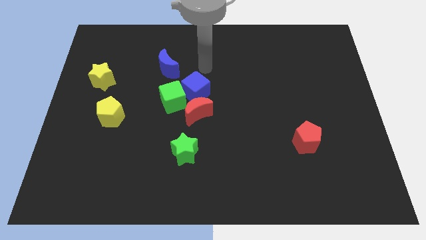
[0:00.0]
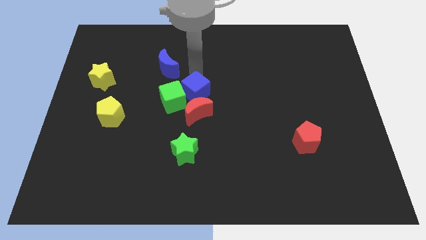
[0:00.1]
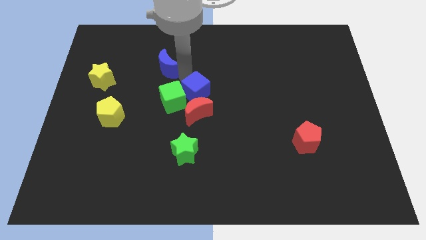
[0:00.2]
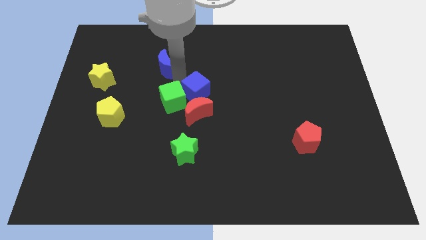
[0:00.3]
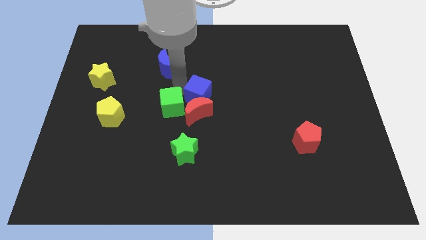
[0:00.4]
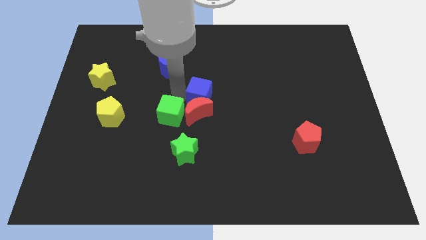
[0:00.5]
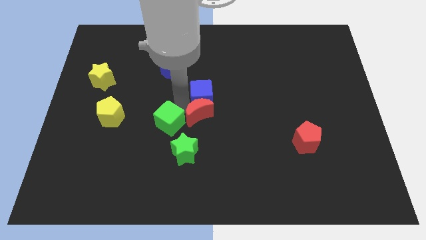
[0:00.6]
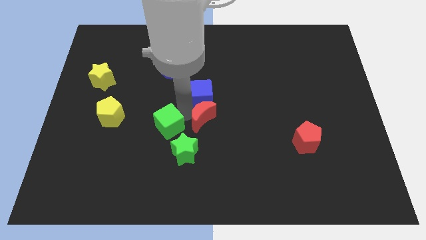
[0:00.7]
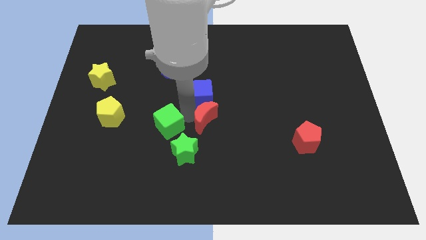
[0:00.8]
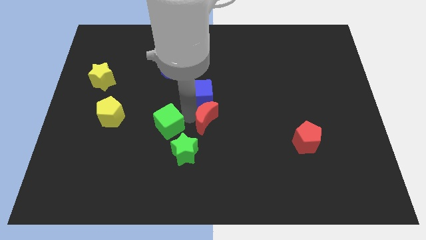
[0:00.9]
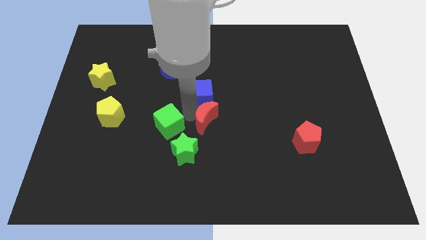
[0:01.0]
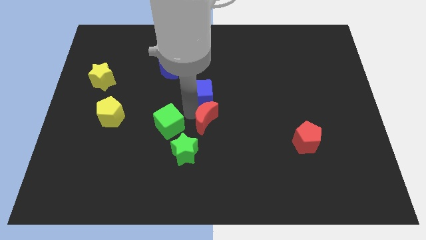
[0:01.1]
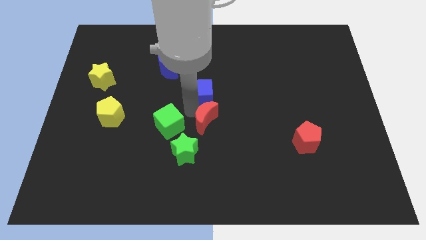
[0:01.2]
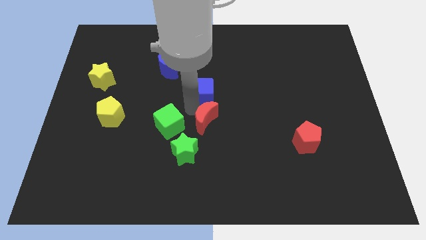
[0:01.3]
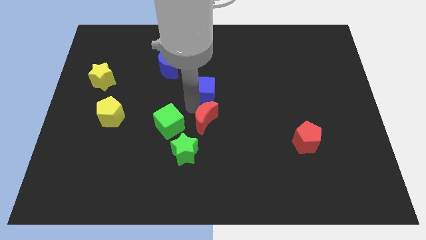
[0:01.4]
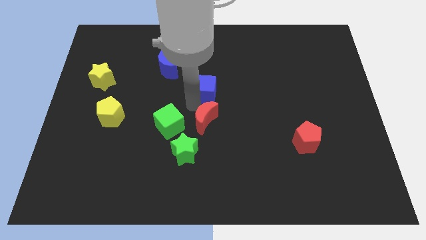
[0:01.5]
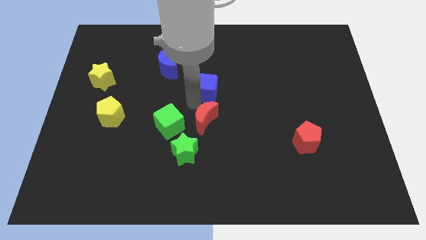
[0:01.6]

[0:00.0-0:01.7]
separate the blue cube from the green cube and red moon

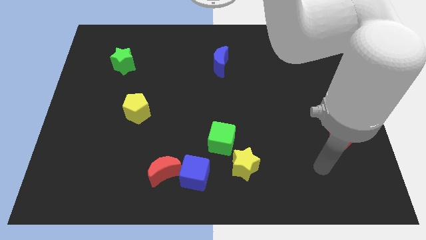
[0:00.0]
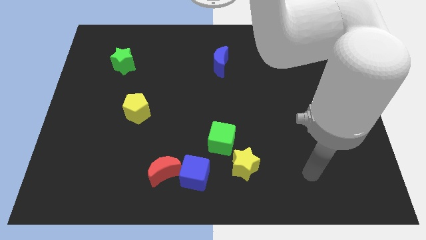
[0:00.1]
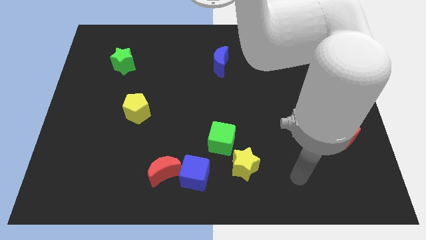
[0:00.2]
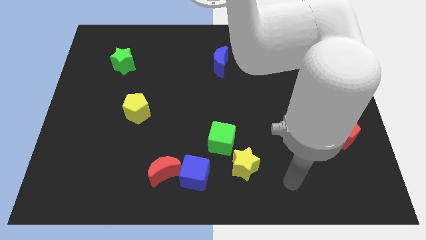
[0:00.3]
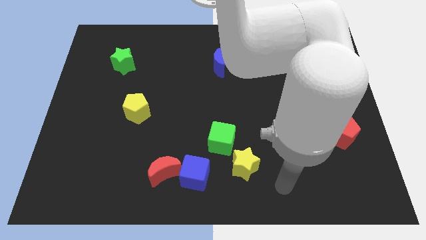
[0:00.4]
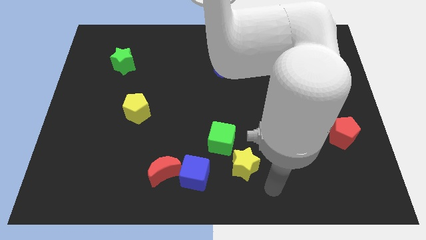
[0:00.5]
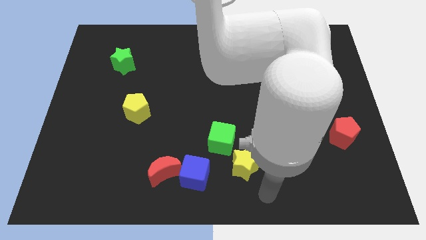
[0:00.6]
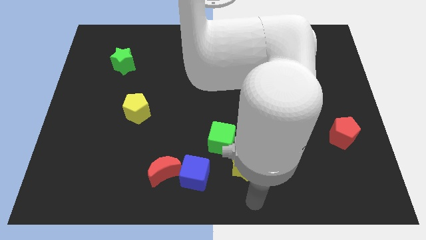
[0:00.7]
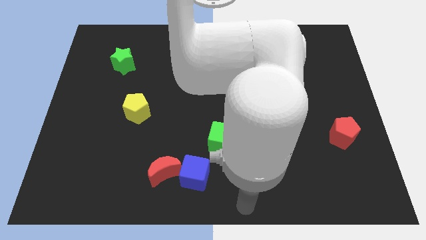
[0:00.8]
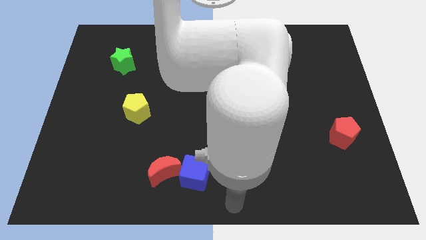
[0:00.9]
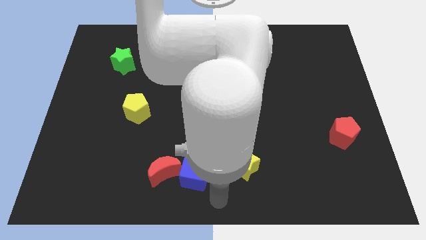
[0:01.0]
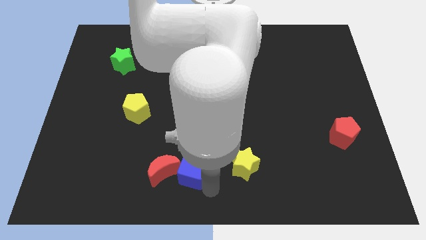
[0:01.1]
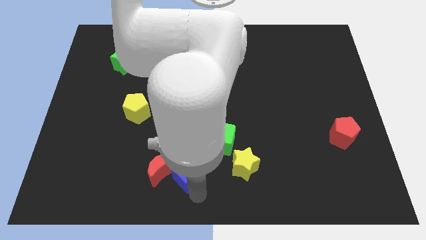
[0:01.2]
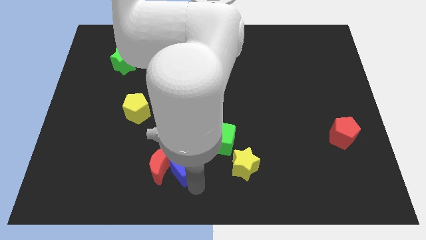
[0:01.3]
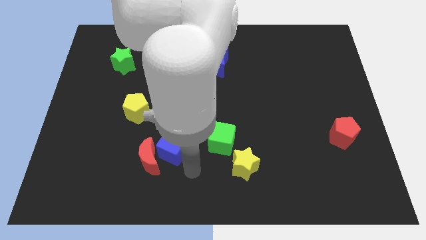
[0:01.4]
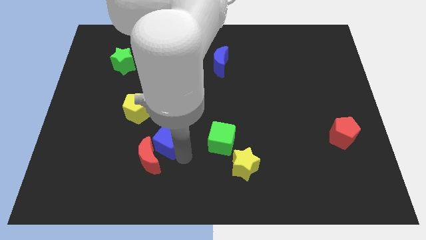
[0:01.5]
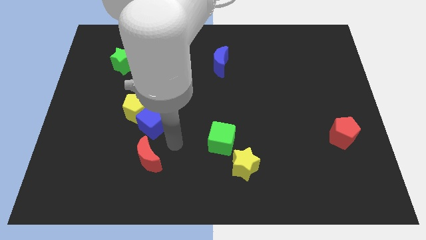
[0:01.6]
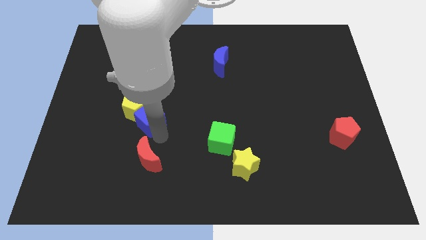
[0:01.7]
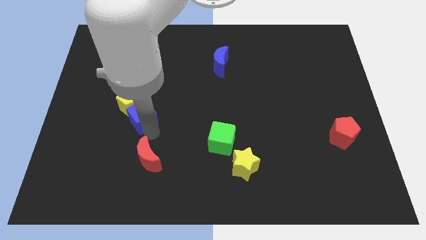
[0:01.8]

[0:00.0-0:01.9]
separate the red moon from the blue cube

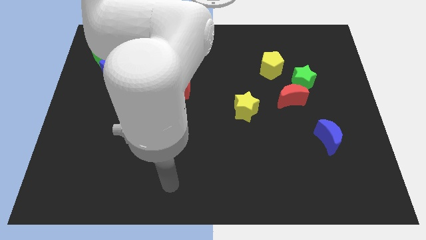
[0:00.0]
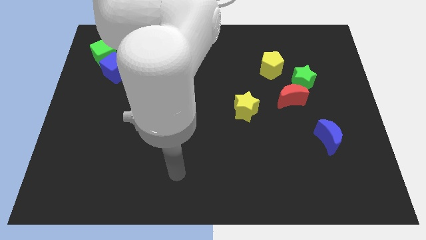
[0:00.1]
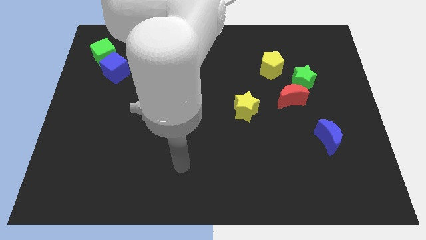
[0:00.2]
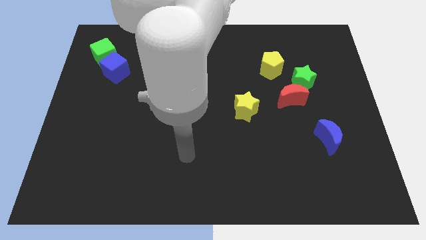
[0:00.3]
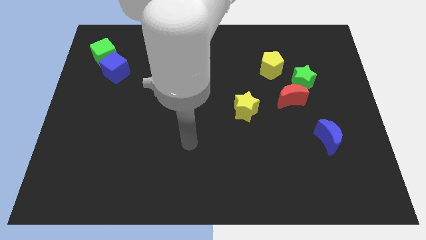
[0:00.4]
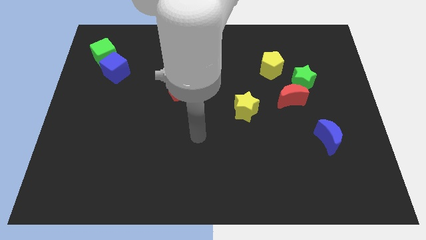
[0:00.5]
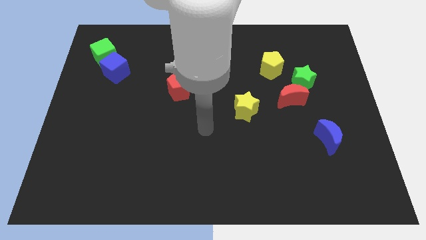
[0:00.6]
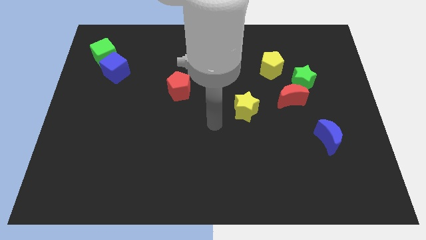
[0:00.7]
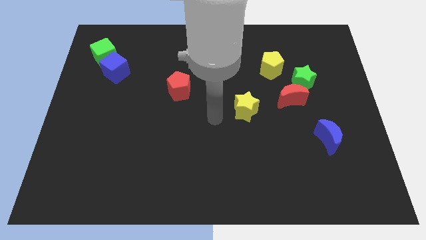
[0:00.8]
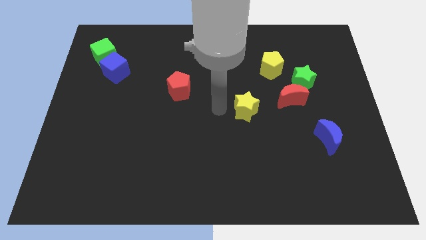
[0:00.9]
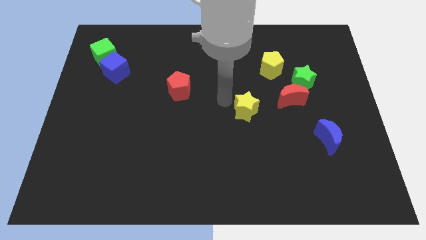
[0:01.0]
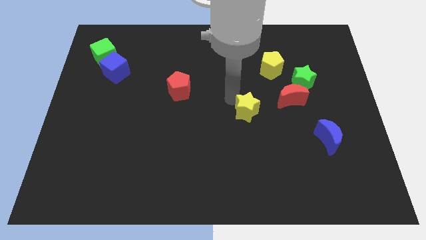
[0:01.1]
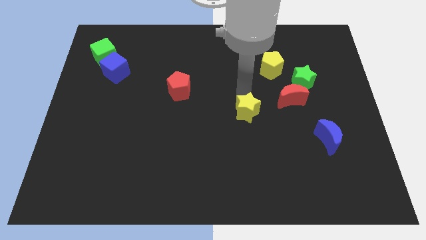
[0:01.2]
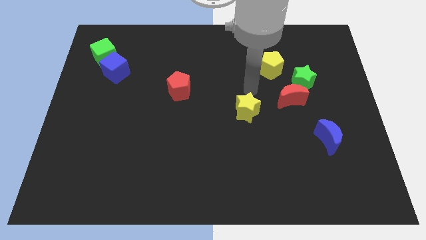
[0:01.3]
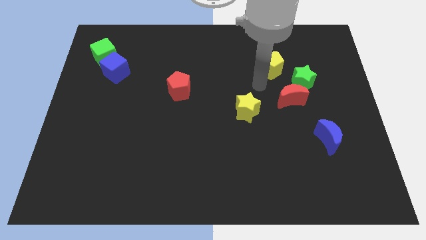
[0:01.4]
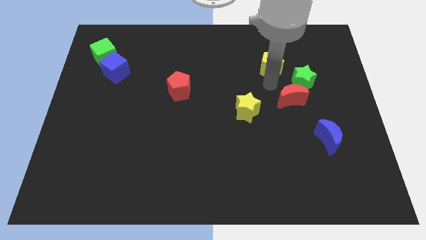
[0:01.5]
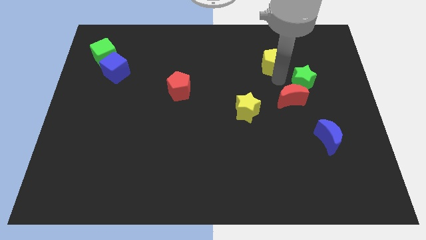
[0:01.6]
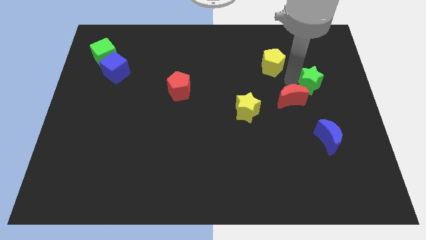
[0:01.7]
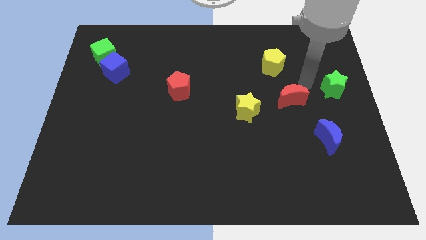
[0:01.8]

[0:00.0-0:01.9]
move the red moon away from the green star

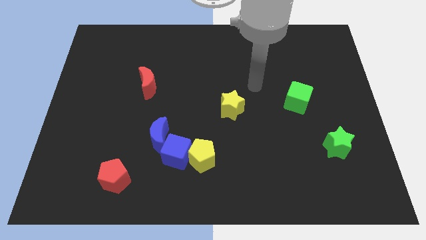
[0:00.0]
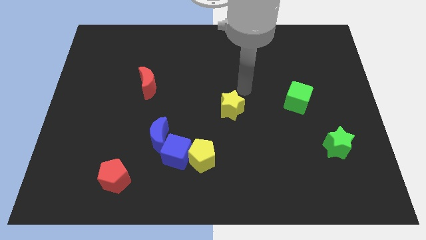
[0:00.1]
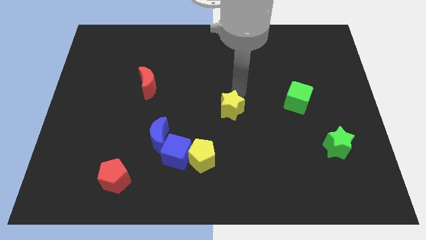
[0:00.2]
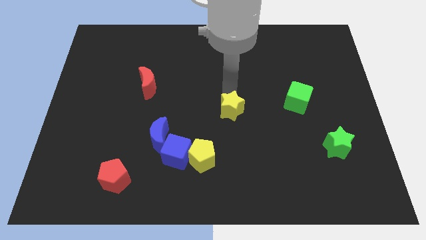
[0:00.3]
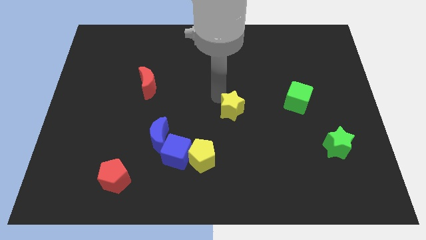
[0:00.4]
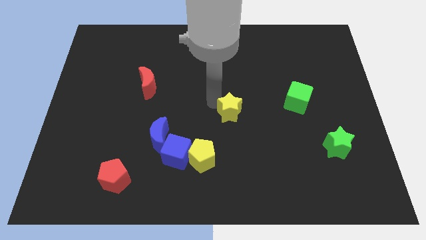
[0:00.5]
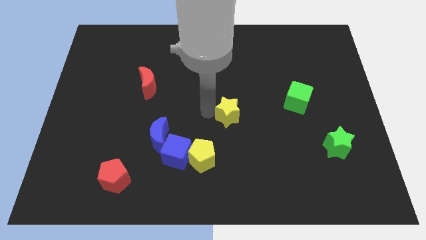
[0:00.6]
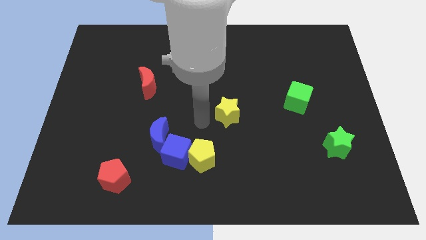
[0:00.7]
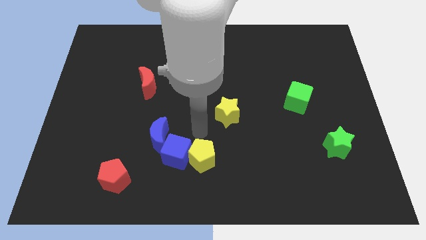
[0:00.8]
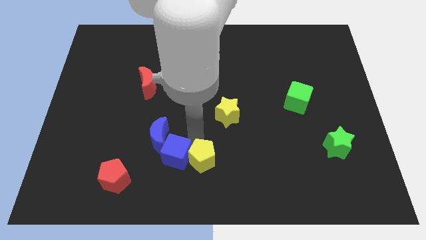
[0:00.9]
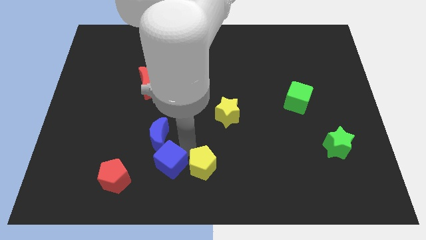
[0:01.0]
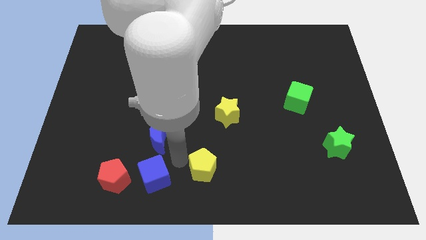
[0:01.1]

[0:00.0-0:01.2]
pull the yellow pentagon apart from the blue cube

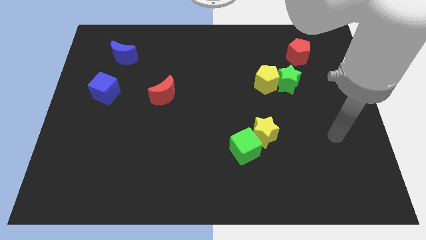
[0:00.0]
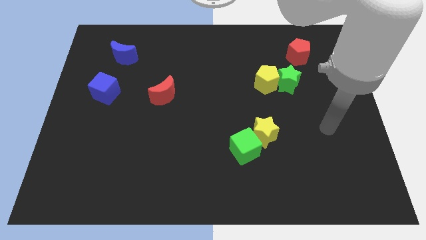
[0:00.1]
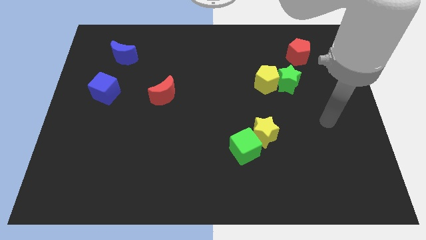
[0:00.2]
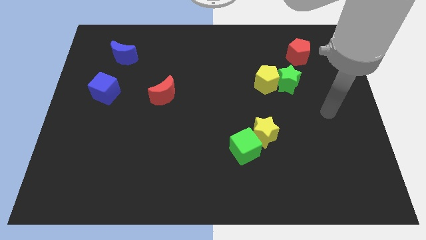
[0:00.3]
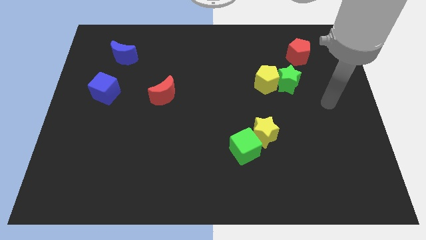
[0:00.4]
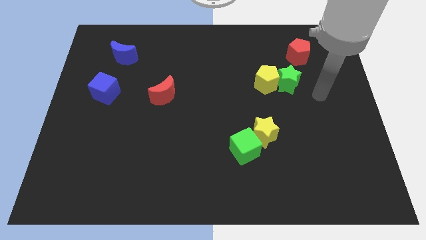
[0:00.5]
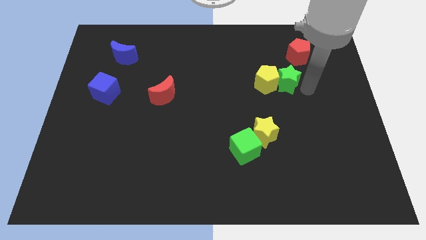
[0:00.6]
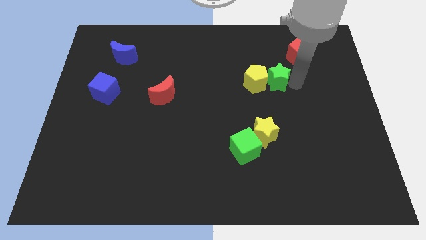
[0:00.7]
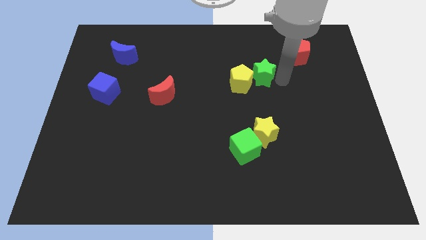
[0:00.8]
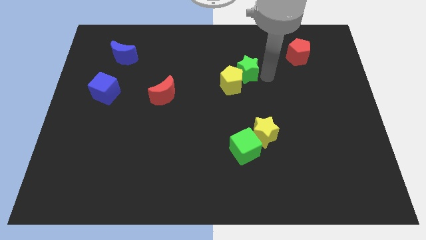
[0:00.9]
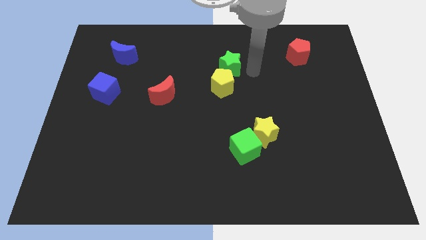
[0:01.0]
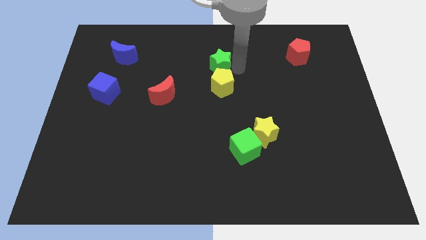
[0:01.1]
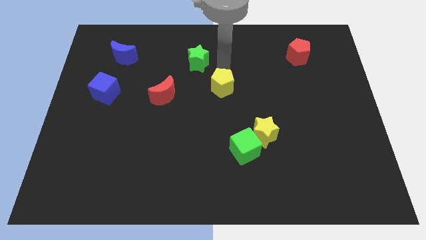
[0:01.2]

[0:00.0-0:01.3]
separate the yellow pentagon from the green star

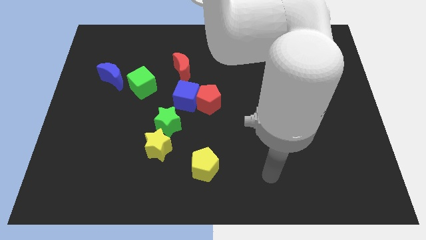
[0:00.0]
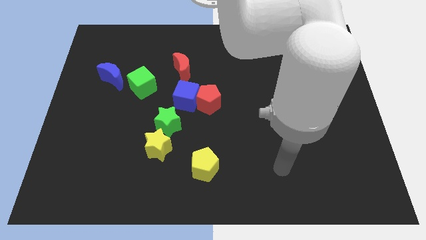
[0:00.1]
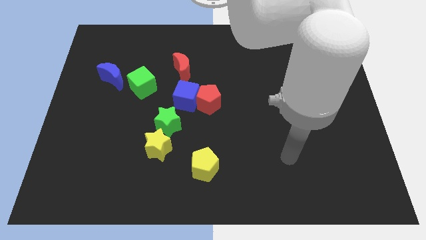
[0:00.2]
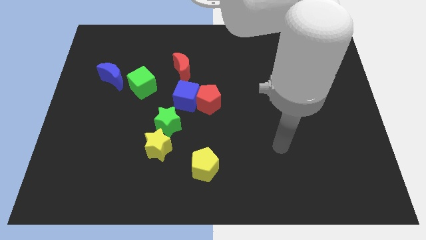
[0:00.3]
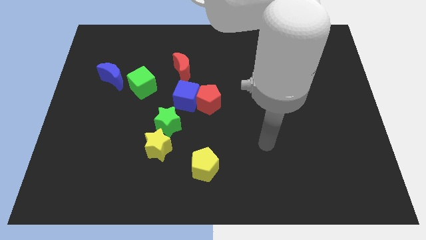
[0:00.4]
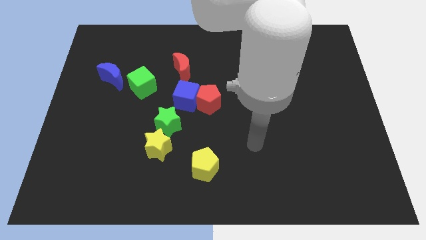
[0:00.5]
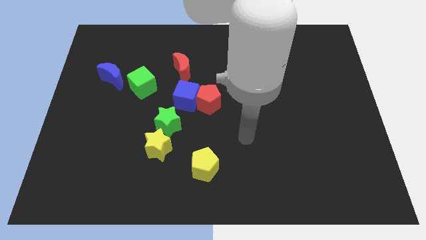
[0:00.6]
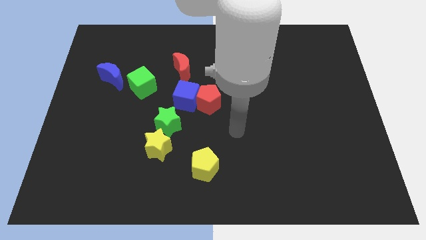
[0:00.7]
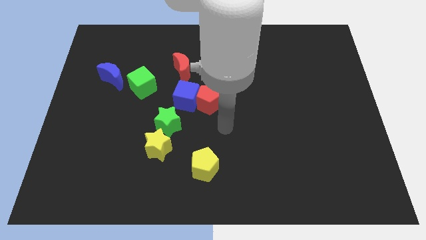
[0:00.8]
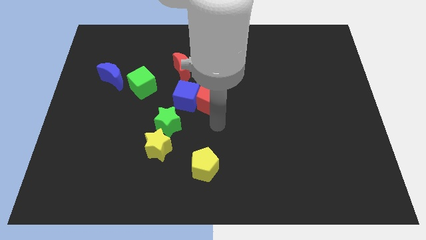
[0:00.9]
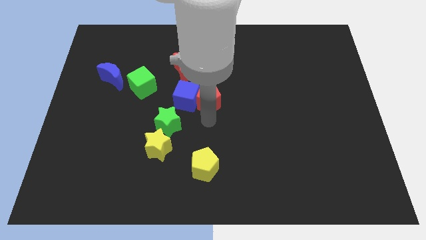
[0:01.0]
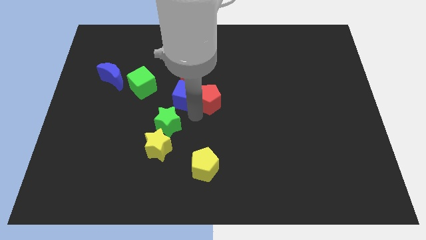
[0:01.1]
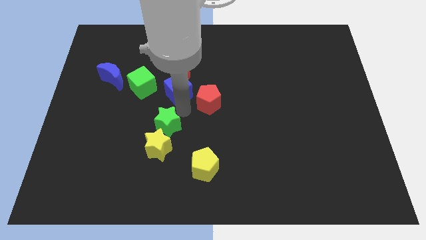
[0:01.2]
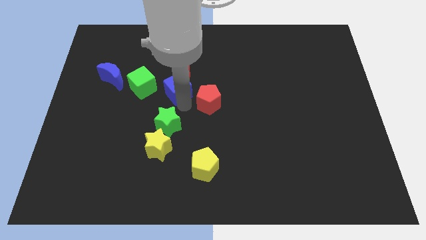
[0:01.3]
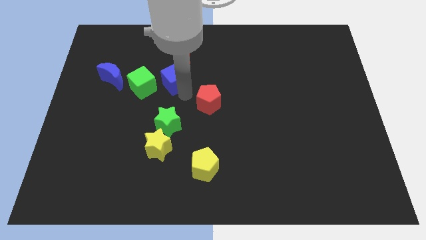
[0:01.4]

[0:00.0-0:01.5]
pull the red pentagon apart from the blue cube
